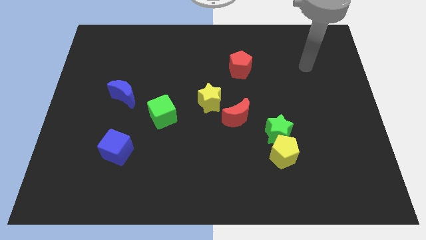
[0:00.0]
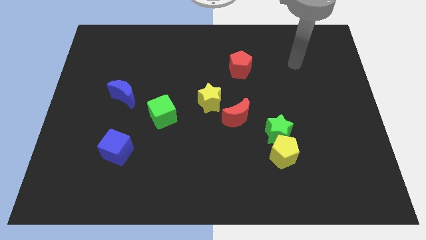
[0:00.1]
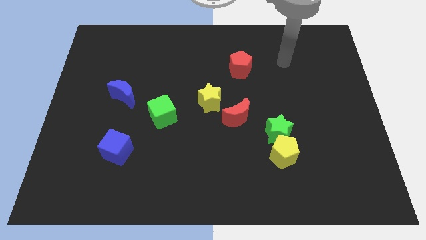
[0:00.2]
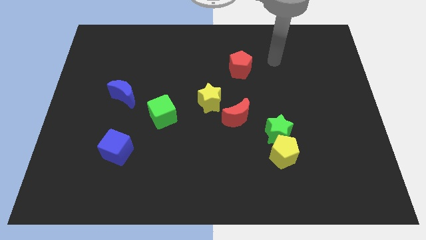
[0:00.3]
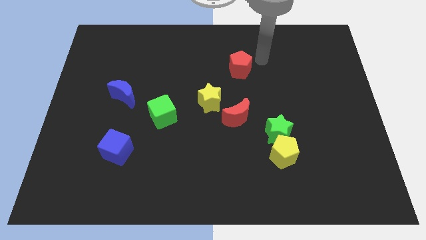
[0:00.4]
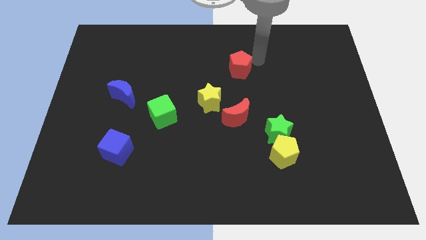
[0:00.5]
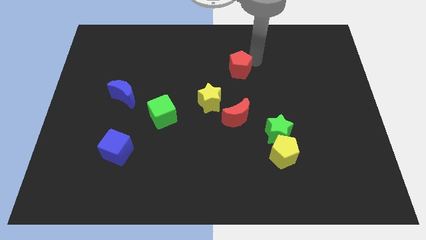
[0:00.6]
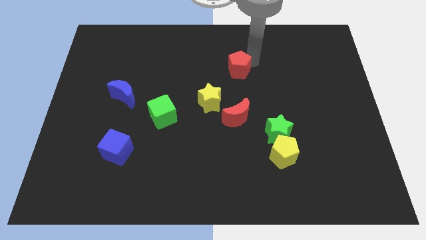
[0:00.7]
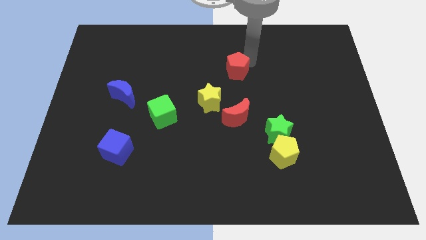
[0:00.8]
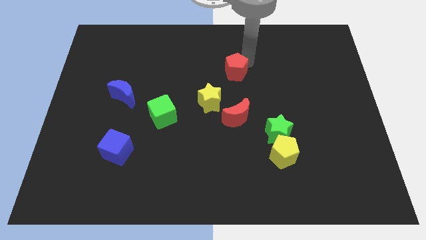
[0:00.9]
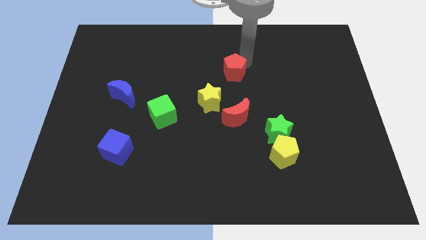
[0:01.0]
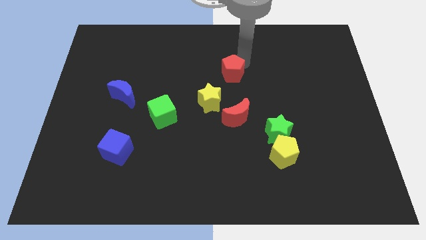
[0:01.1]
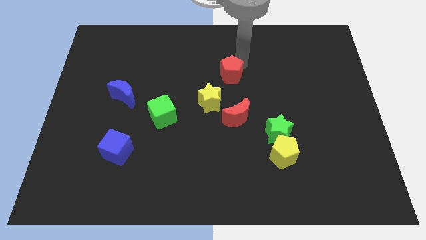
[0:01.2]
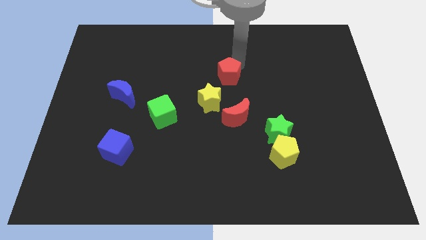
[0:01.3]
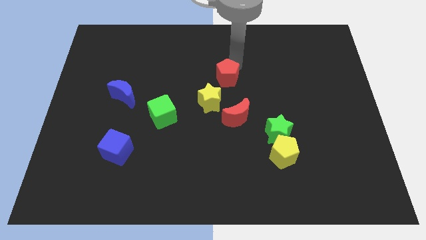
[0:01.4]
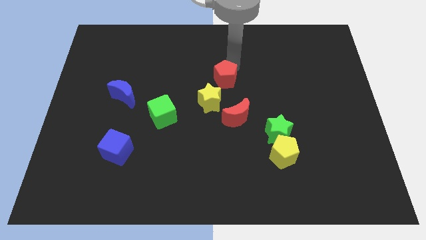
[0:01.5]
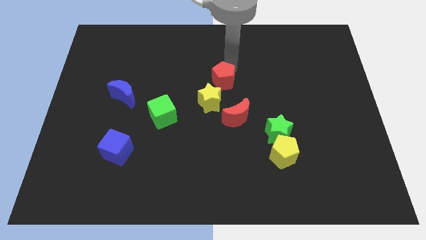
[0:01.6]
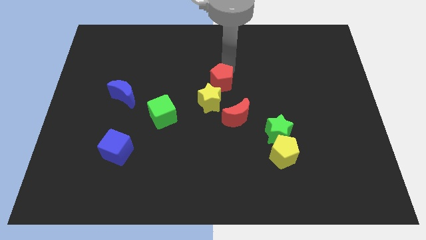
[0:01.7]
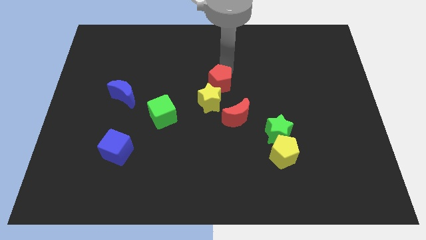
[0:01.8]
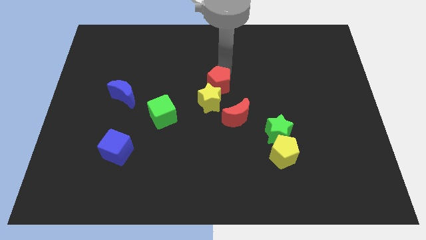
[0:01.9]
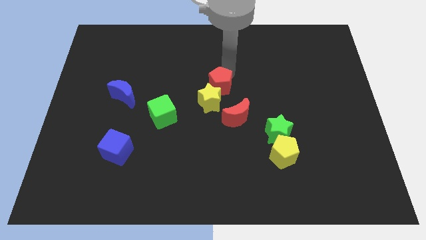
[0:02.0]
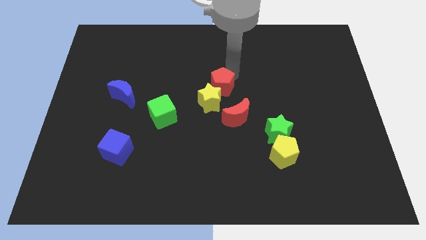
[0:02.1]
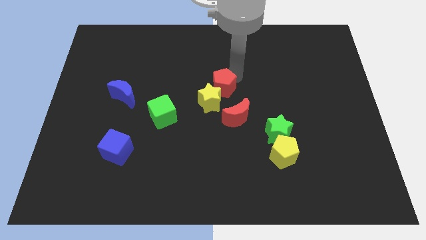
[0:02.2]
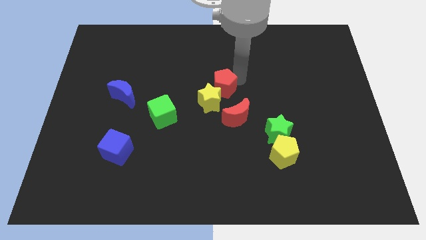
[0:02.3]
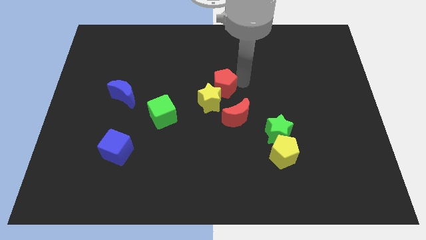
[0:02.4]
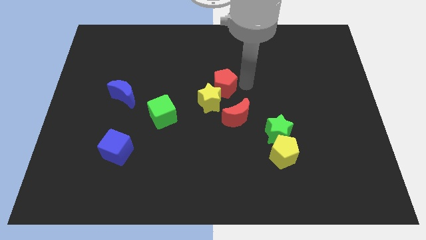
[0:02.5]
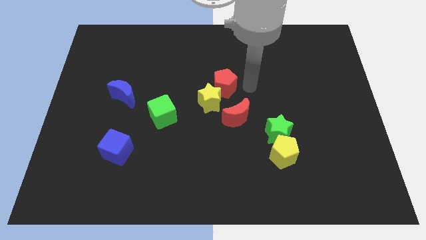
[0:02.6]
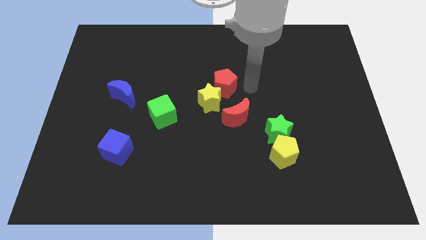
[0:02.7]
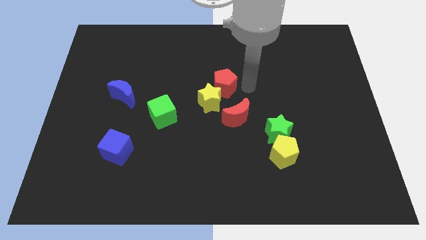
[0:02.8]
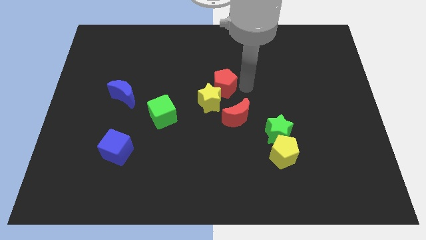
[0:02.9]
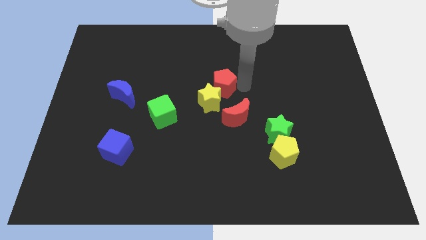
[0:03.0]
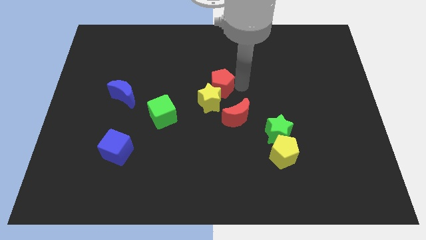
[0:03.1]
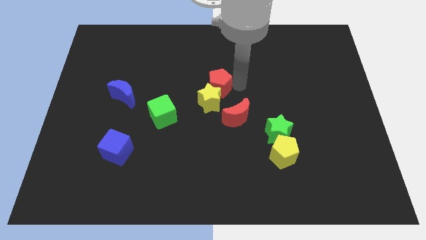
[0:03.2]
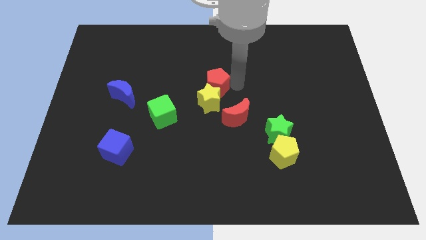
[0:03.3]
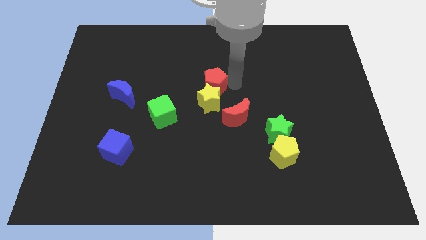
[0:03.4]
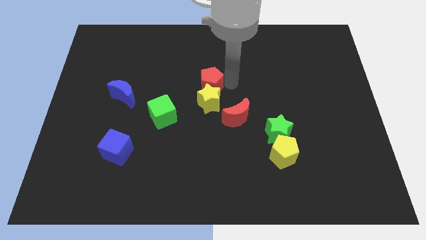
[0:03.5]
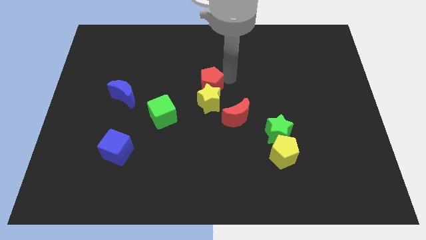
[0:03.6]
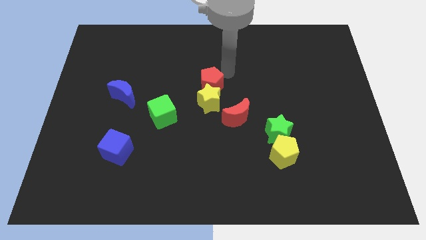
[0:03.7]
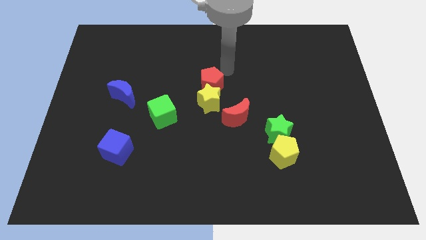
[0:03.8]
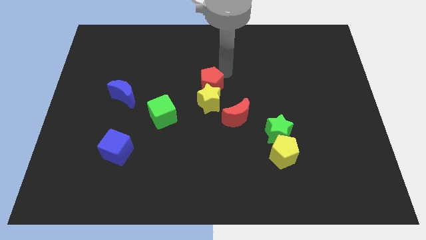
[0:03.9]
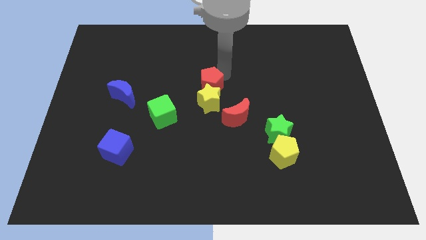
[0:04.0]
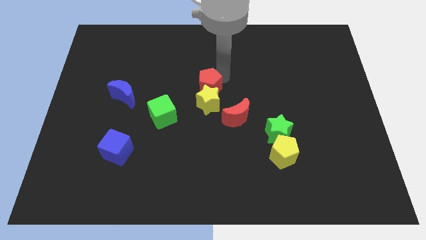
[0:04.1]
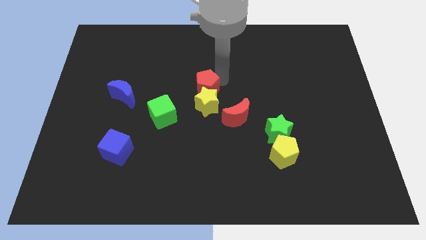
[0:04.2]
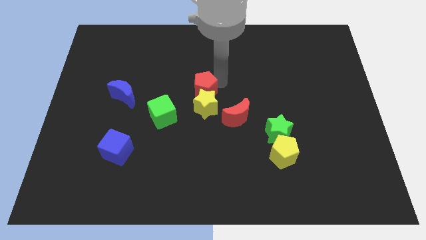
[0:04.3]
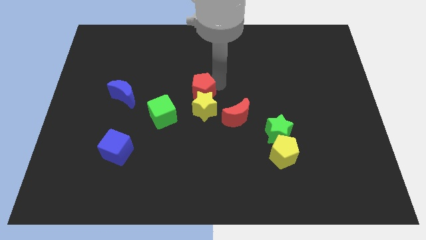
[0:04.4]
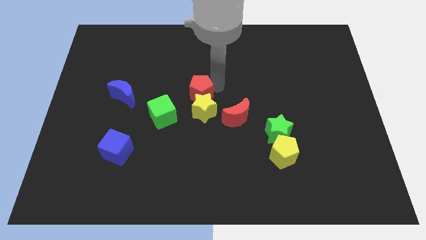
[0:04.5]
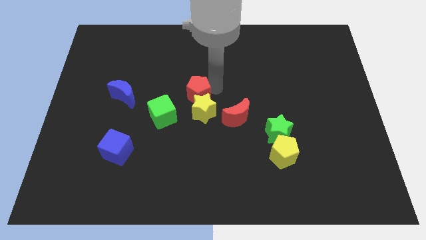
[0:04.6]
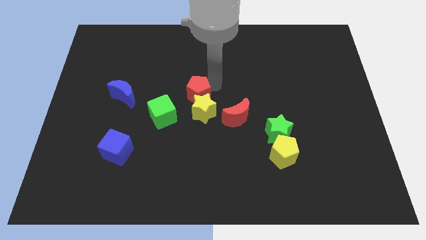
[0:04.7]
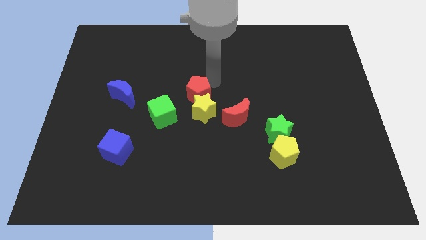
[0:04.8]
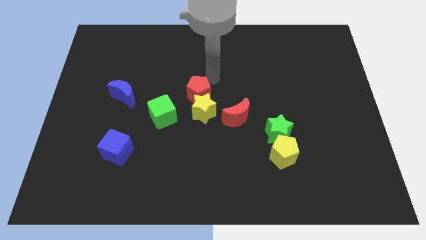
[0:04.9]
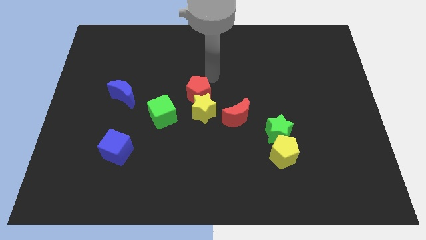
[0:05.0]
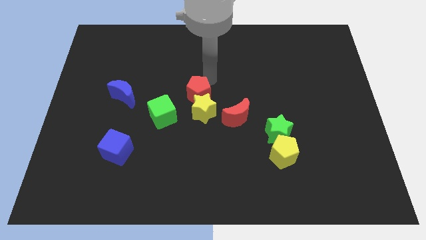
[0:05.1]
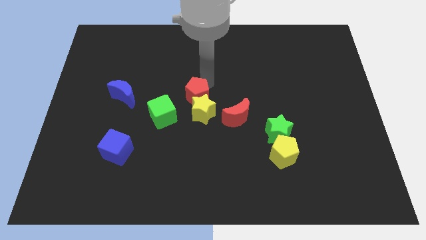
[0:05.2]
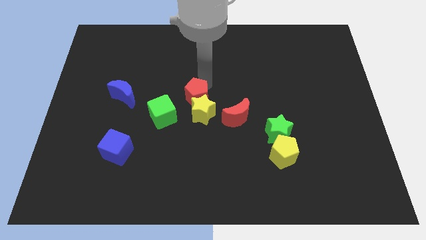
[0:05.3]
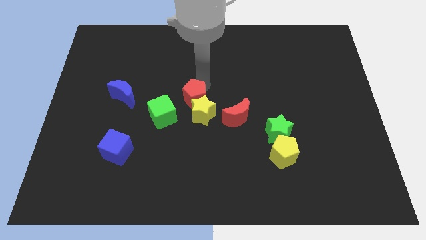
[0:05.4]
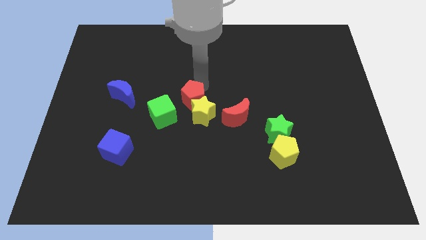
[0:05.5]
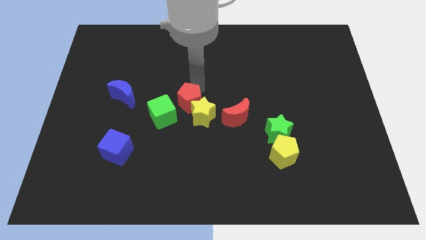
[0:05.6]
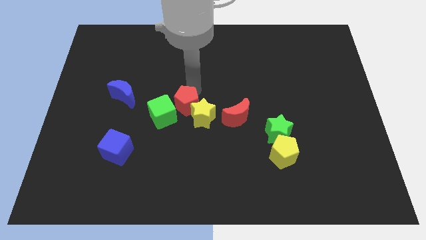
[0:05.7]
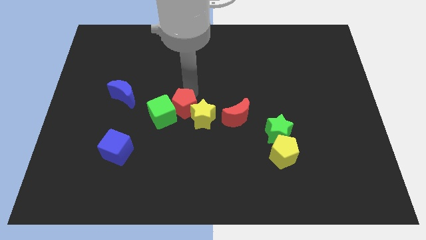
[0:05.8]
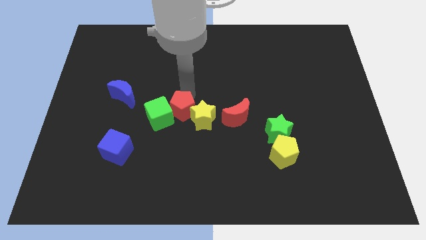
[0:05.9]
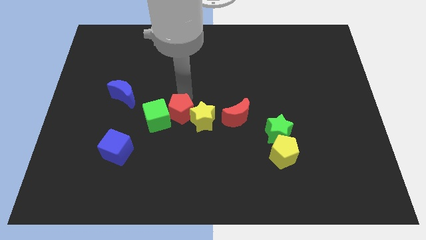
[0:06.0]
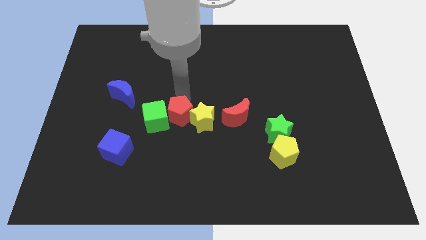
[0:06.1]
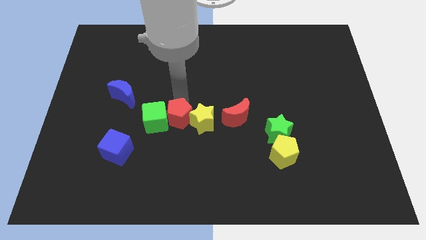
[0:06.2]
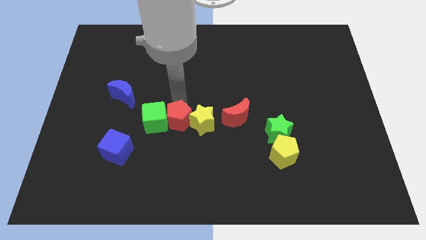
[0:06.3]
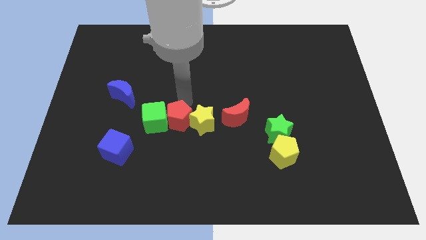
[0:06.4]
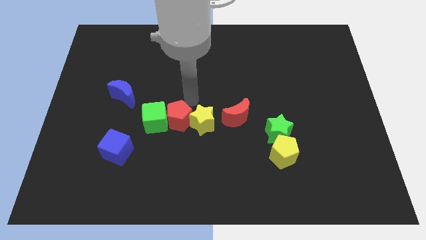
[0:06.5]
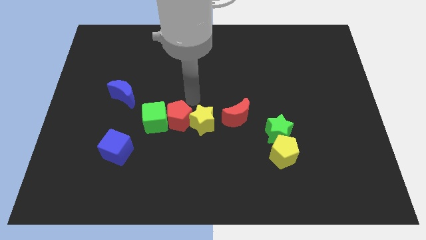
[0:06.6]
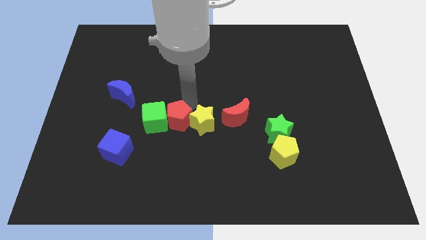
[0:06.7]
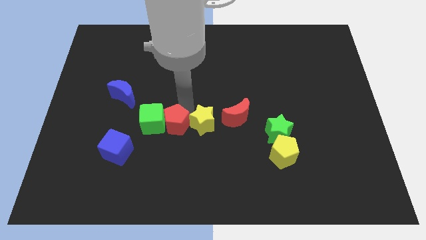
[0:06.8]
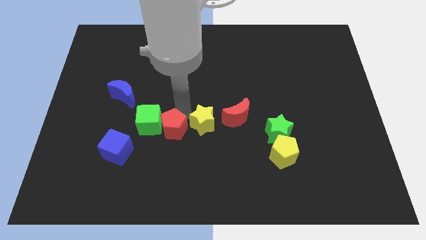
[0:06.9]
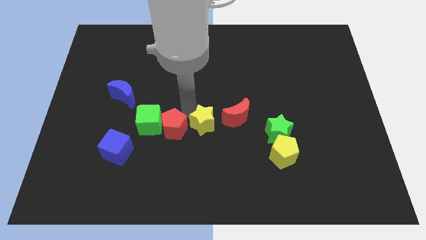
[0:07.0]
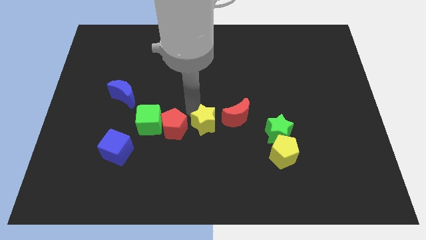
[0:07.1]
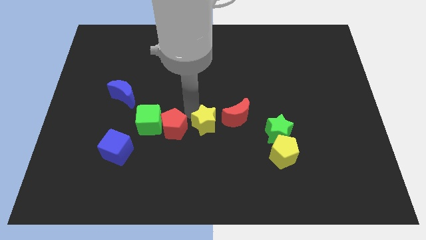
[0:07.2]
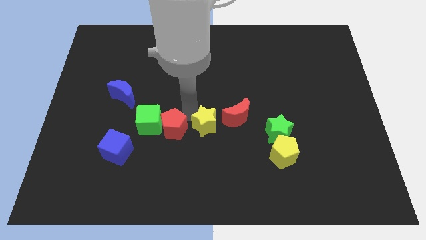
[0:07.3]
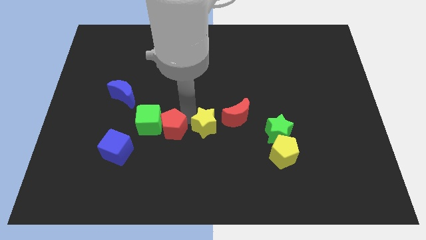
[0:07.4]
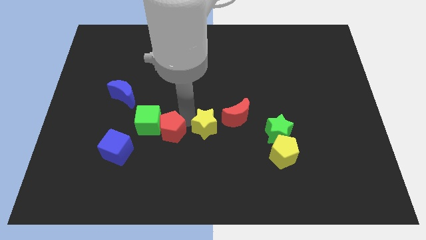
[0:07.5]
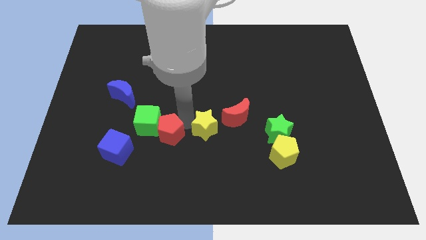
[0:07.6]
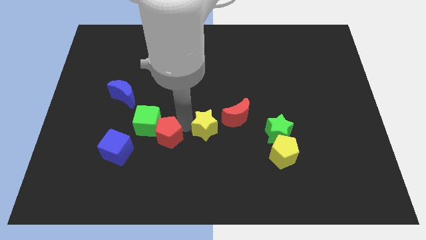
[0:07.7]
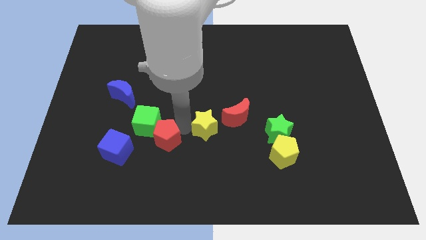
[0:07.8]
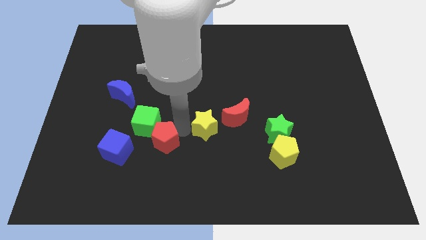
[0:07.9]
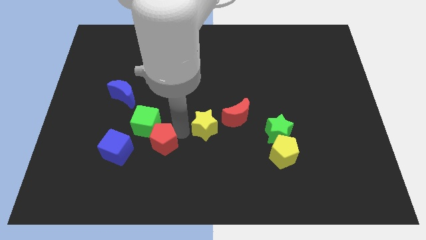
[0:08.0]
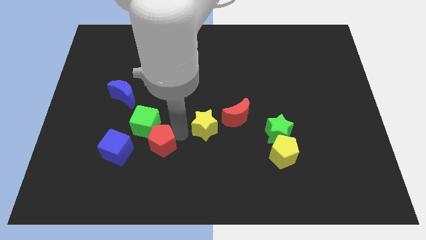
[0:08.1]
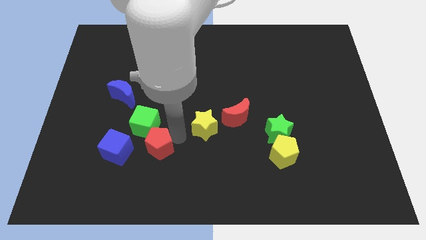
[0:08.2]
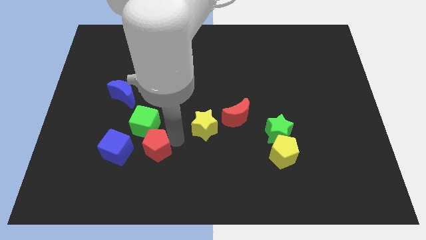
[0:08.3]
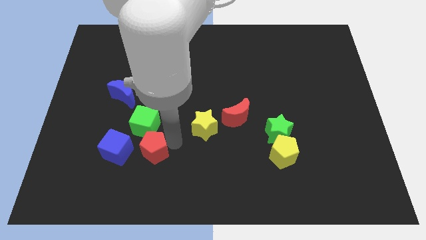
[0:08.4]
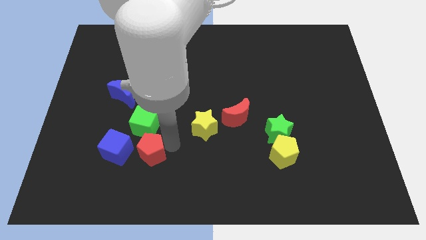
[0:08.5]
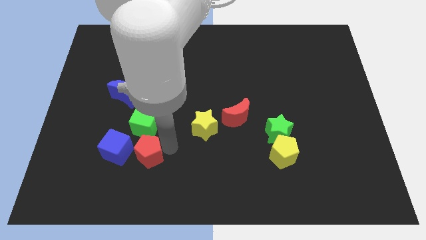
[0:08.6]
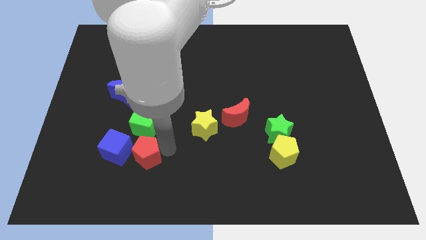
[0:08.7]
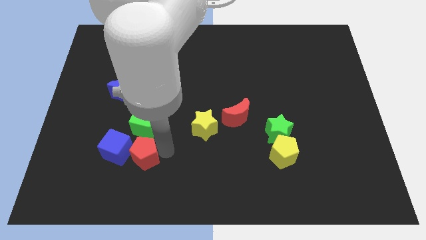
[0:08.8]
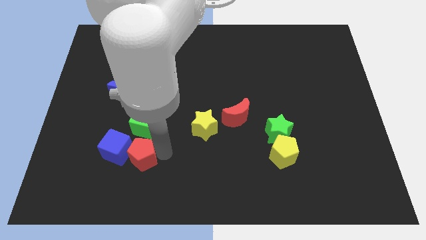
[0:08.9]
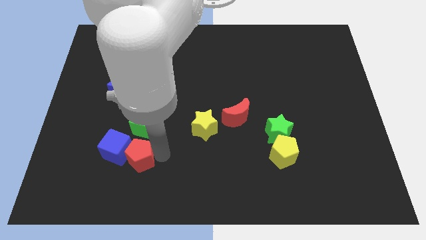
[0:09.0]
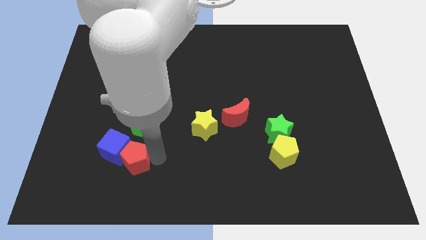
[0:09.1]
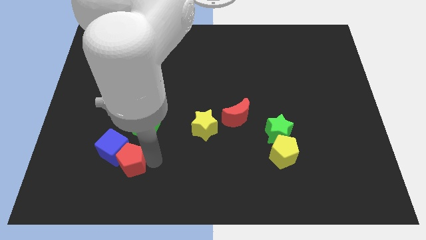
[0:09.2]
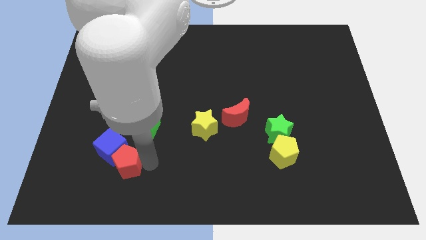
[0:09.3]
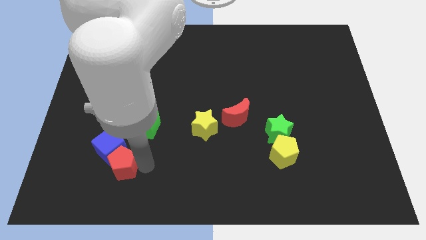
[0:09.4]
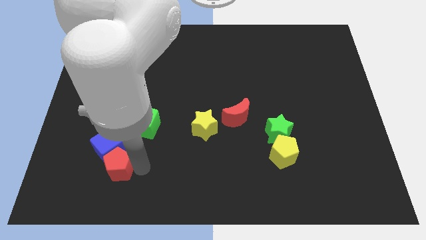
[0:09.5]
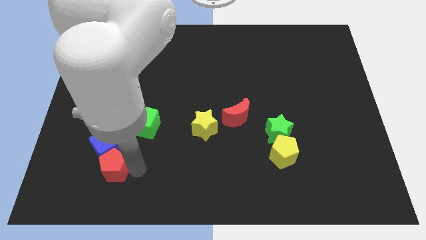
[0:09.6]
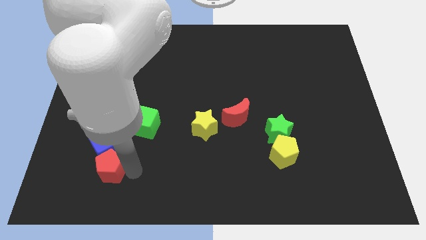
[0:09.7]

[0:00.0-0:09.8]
put the red pentagon to the bottom left of the blue cube
